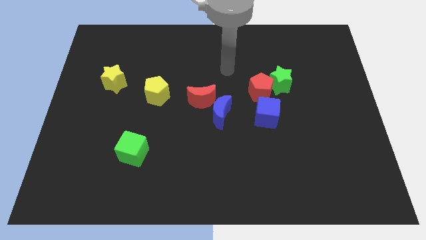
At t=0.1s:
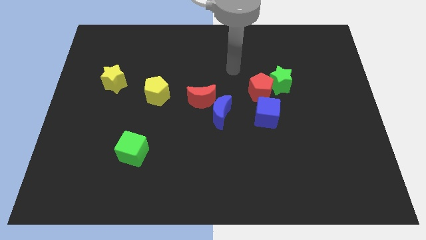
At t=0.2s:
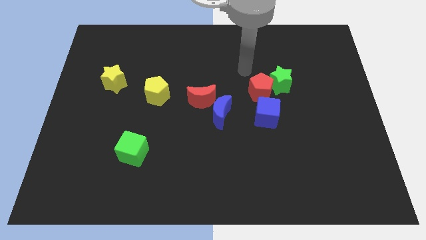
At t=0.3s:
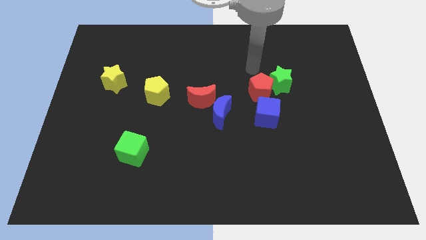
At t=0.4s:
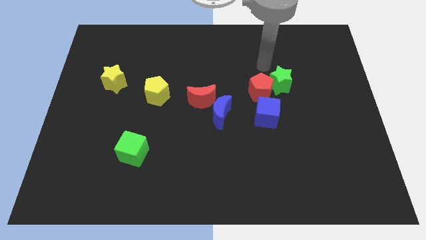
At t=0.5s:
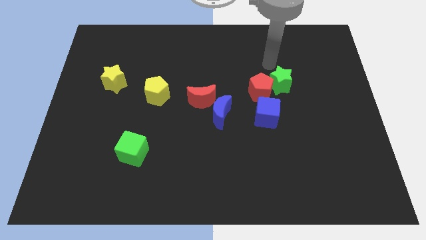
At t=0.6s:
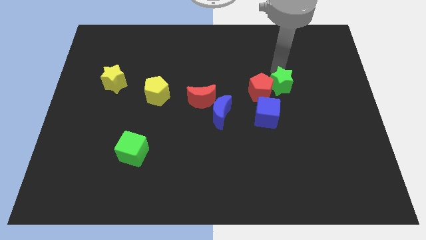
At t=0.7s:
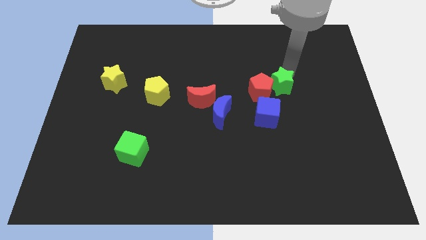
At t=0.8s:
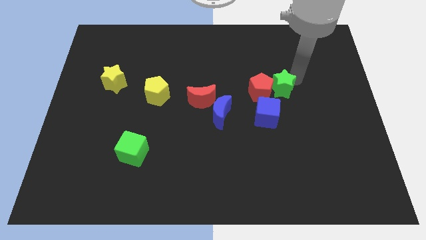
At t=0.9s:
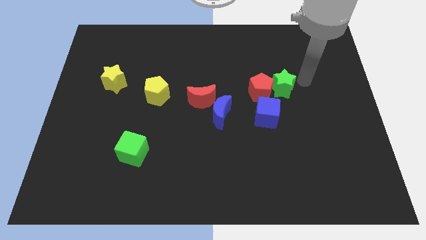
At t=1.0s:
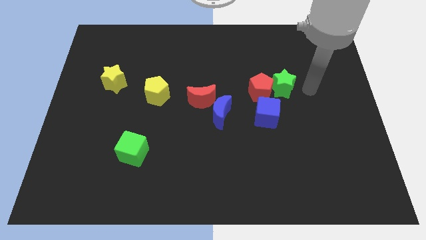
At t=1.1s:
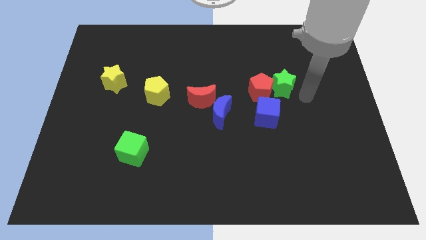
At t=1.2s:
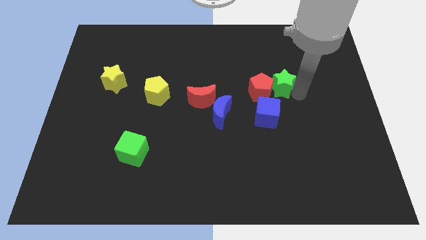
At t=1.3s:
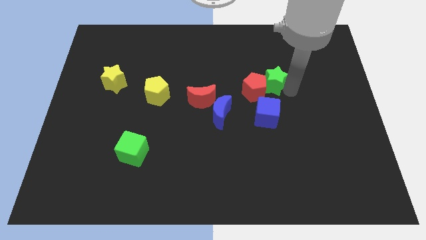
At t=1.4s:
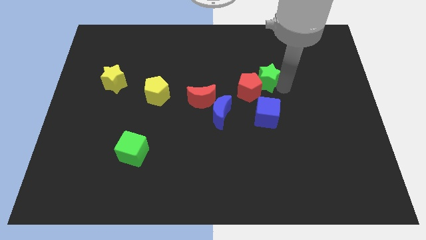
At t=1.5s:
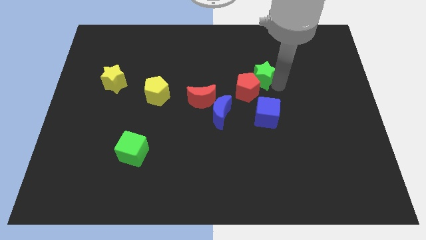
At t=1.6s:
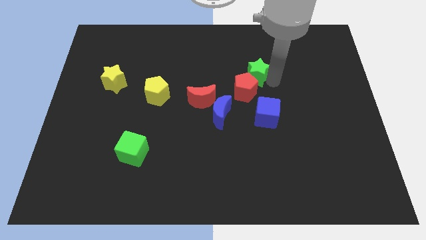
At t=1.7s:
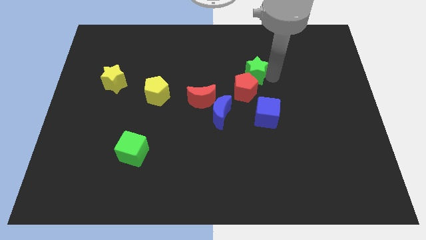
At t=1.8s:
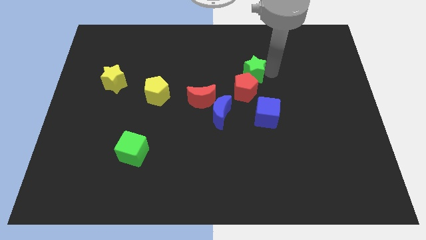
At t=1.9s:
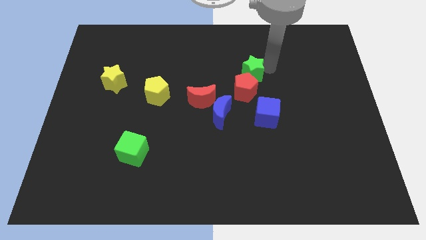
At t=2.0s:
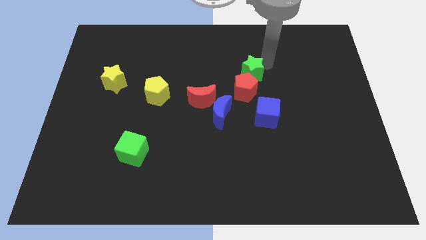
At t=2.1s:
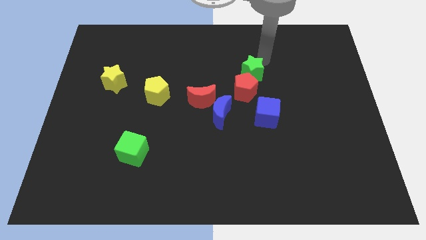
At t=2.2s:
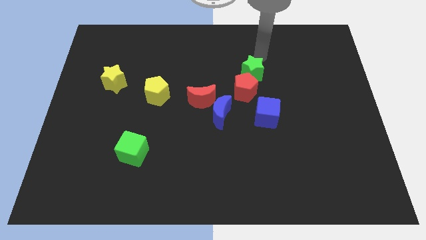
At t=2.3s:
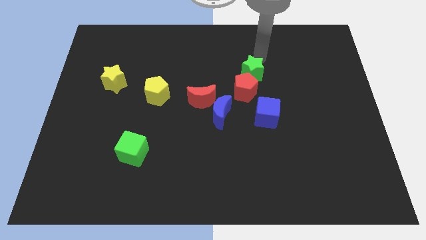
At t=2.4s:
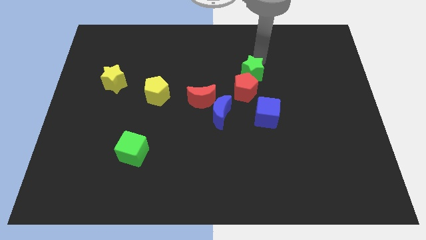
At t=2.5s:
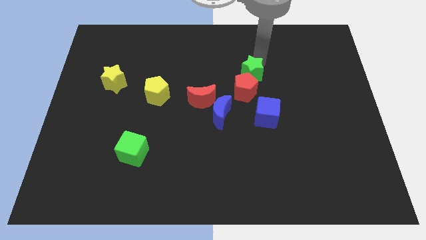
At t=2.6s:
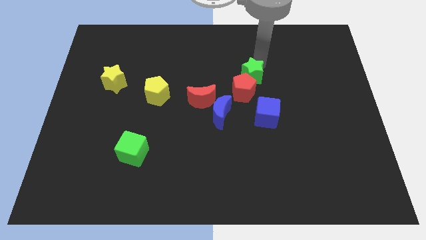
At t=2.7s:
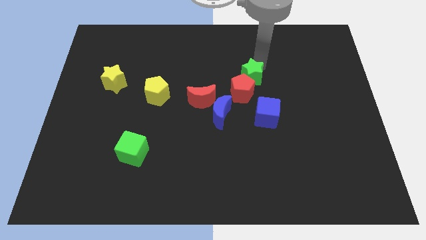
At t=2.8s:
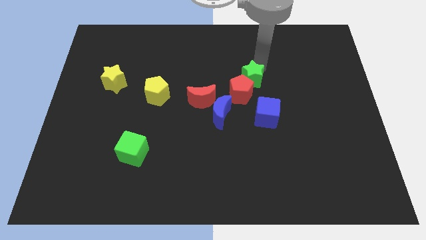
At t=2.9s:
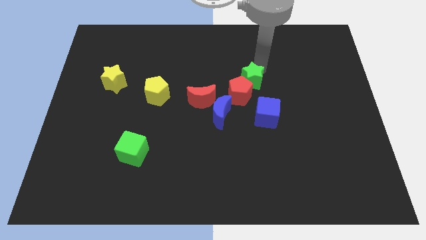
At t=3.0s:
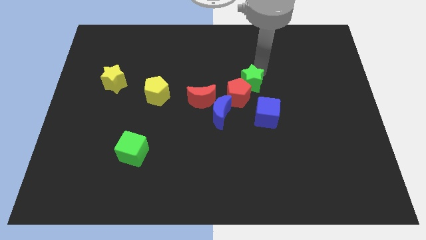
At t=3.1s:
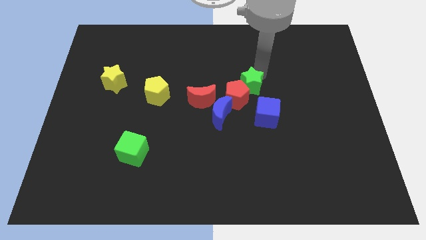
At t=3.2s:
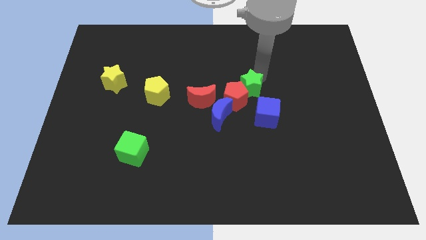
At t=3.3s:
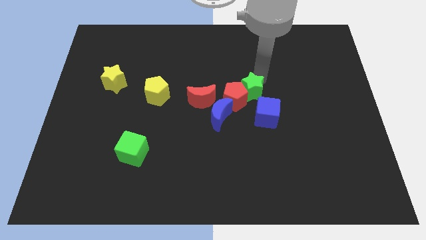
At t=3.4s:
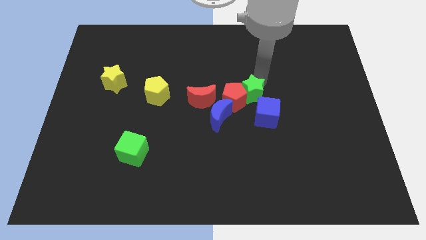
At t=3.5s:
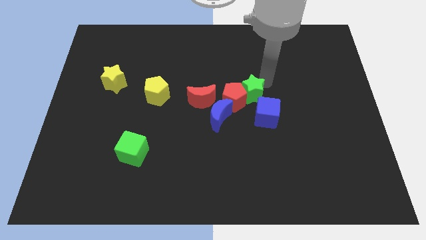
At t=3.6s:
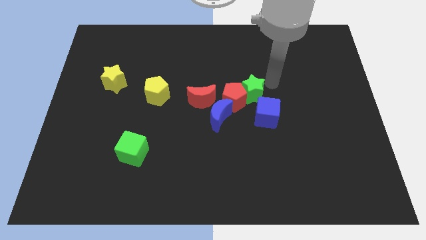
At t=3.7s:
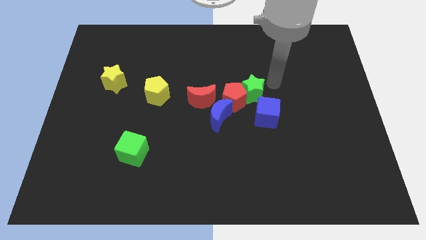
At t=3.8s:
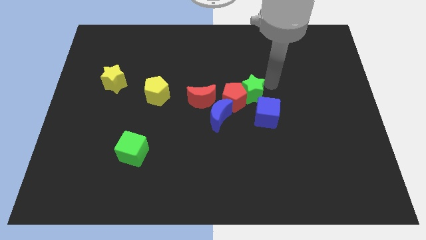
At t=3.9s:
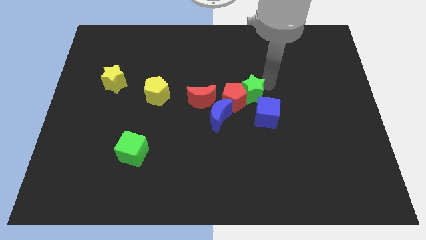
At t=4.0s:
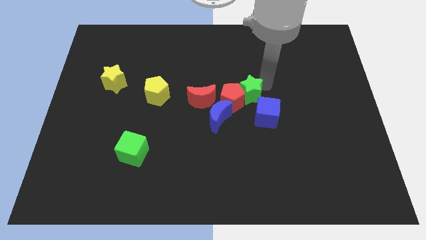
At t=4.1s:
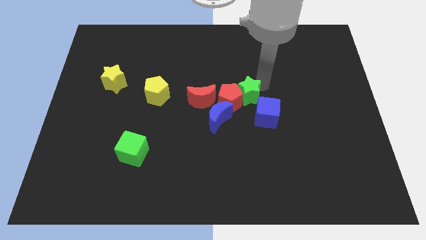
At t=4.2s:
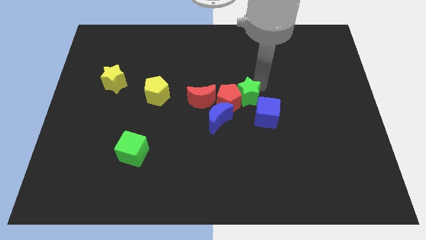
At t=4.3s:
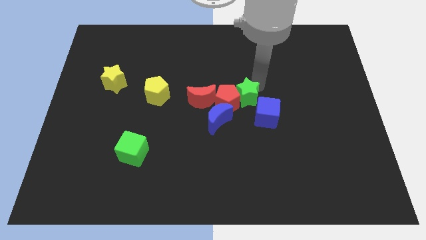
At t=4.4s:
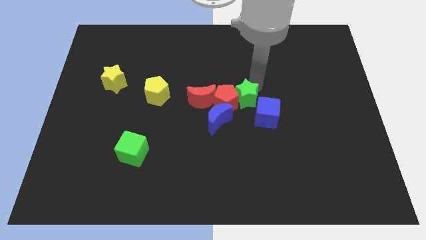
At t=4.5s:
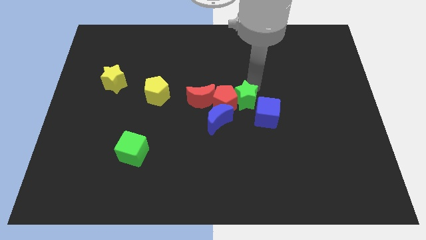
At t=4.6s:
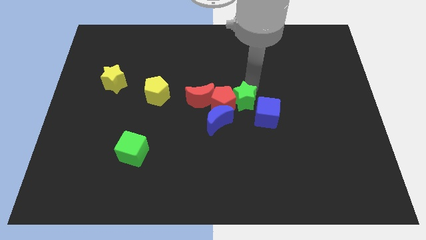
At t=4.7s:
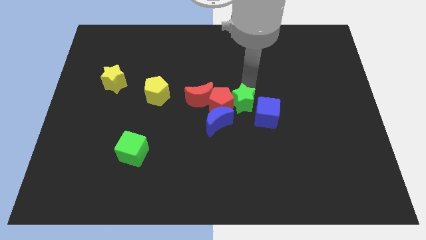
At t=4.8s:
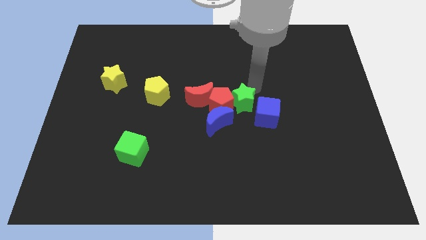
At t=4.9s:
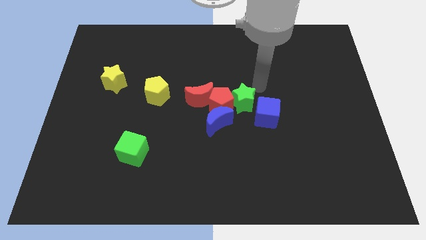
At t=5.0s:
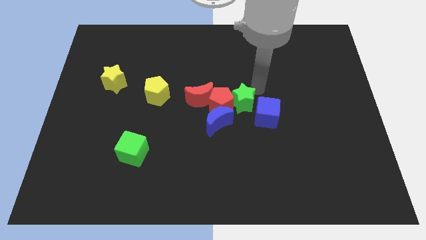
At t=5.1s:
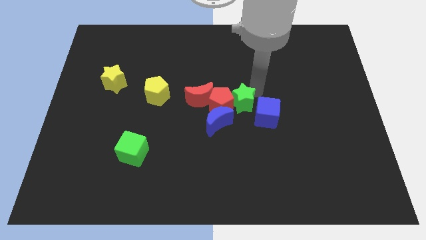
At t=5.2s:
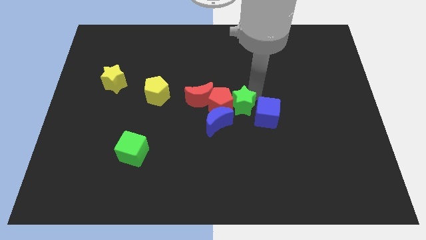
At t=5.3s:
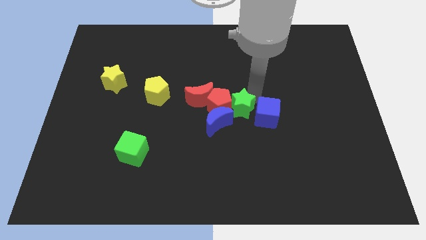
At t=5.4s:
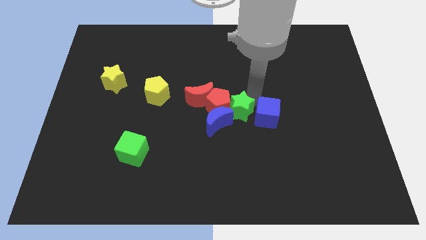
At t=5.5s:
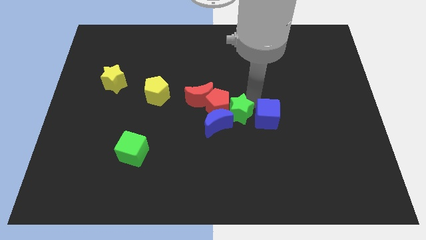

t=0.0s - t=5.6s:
slide the green star close to the blue moon

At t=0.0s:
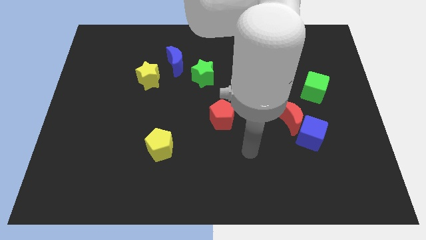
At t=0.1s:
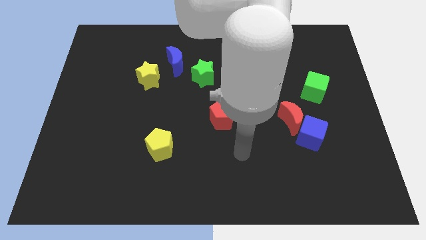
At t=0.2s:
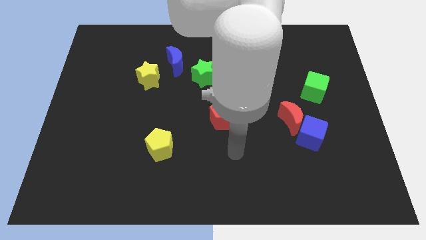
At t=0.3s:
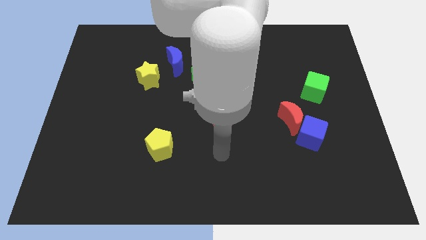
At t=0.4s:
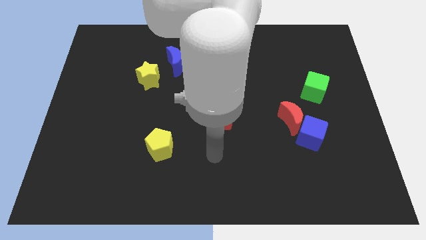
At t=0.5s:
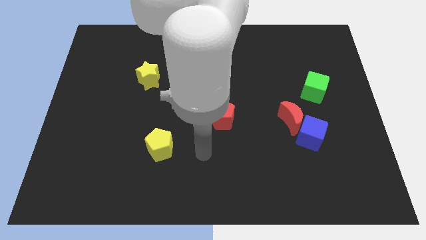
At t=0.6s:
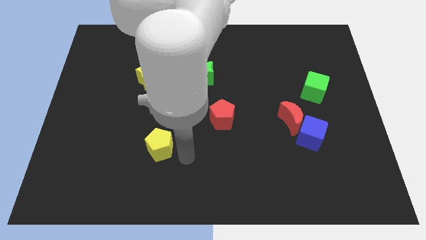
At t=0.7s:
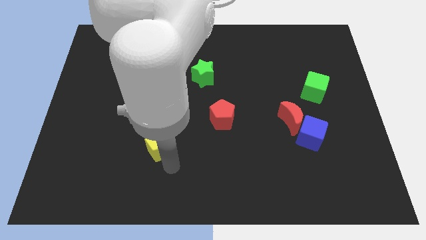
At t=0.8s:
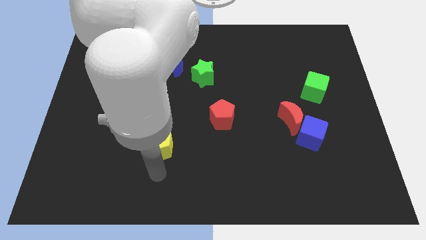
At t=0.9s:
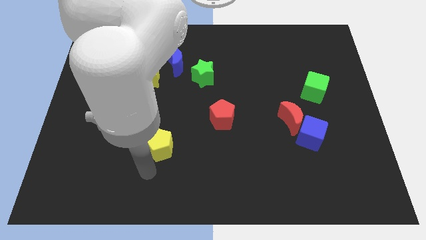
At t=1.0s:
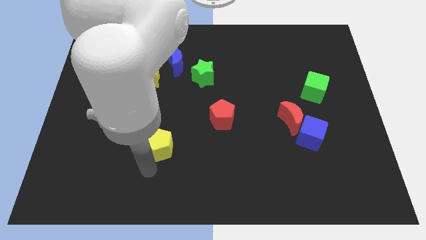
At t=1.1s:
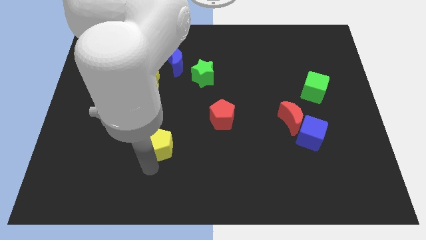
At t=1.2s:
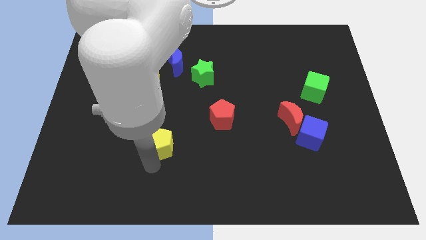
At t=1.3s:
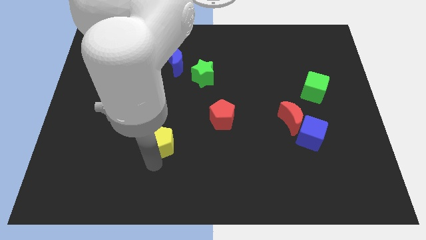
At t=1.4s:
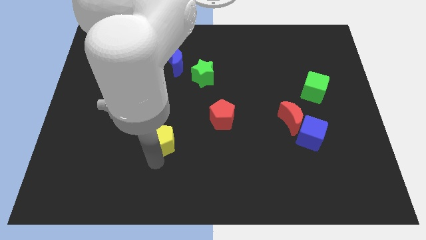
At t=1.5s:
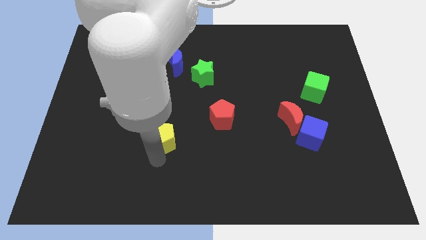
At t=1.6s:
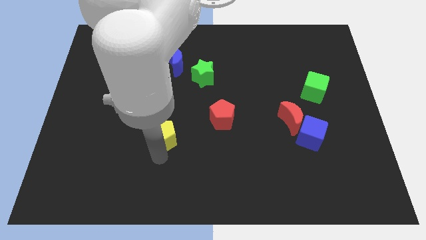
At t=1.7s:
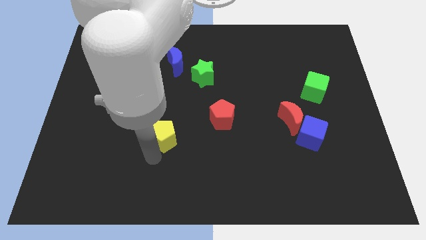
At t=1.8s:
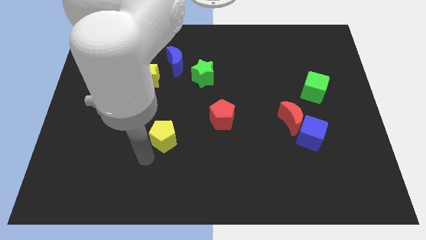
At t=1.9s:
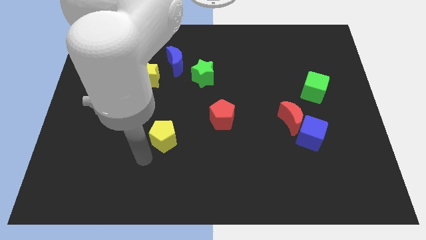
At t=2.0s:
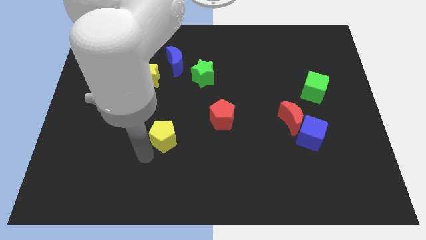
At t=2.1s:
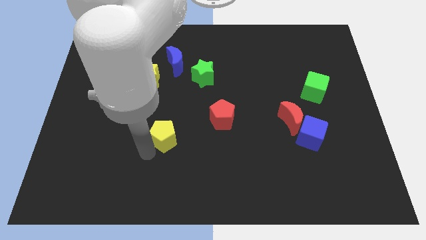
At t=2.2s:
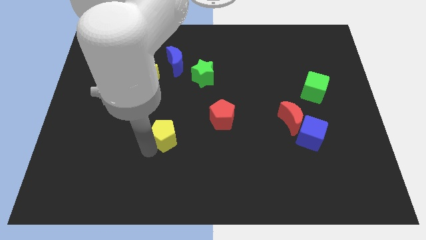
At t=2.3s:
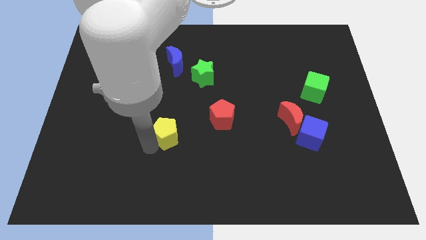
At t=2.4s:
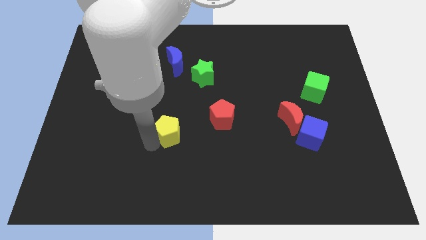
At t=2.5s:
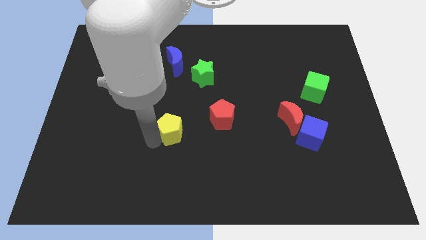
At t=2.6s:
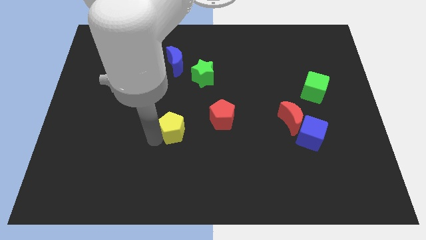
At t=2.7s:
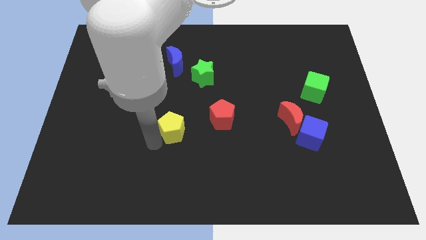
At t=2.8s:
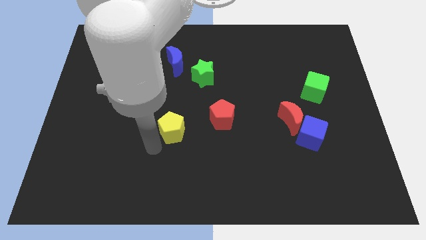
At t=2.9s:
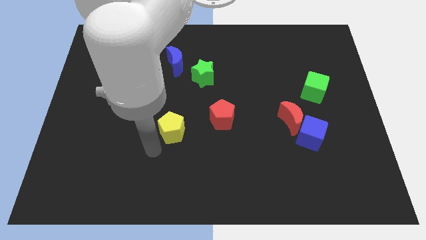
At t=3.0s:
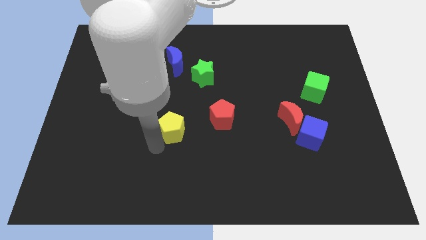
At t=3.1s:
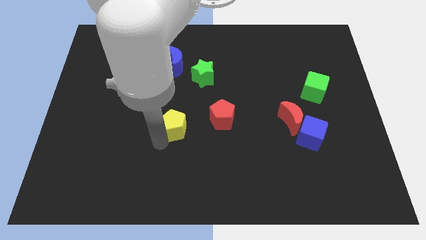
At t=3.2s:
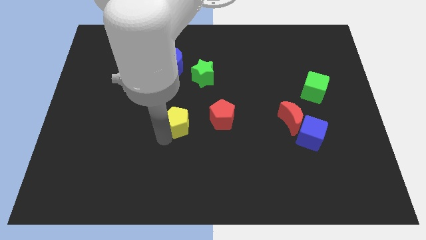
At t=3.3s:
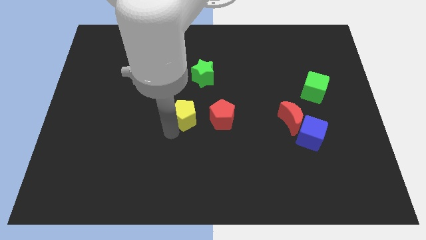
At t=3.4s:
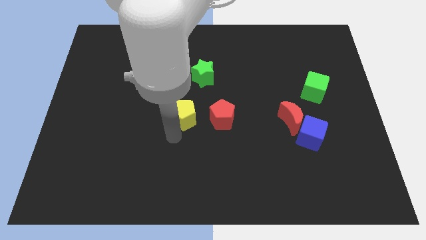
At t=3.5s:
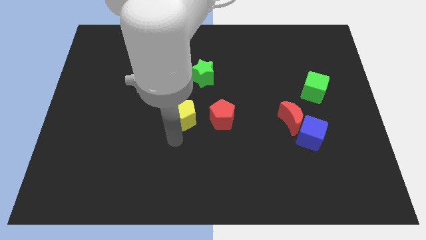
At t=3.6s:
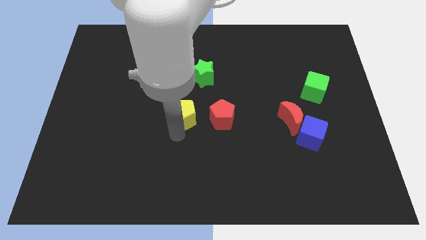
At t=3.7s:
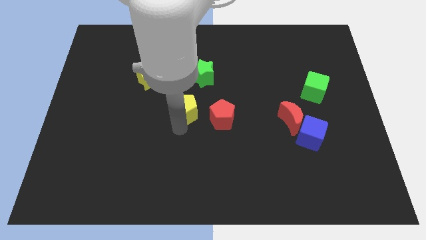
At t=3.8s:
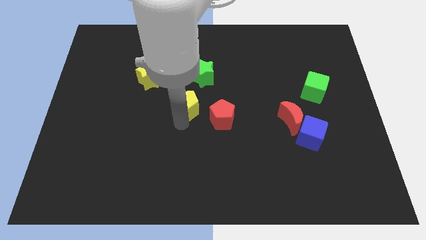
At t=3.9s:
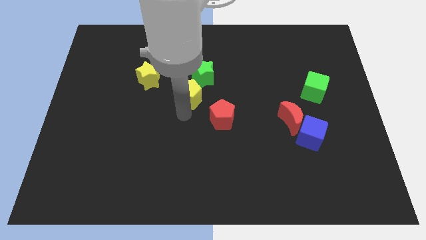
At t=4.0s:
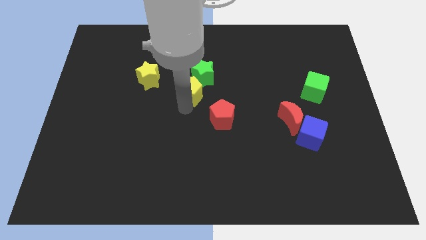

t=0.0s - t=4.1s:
push the yellow pentagon towards the green star
